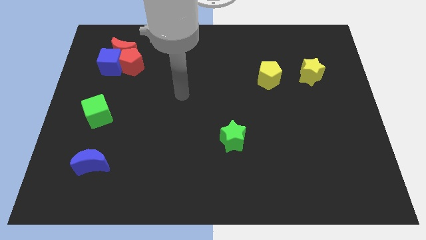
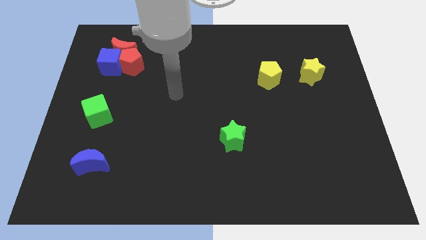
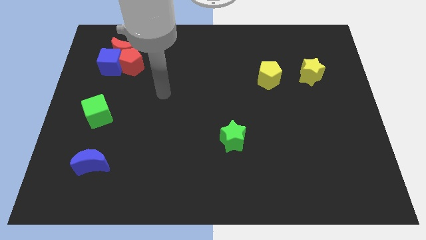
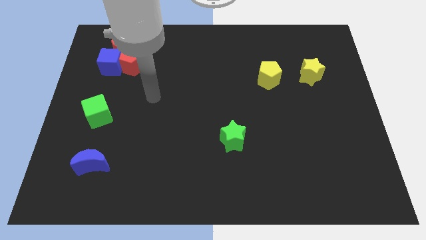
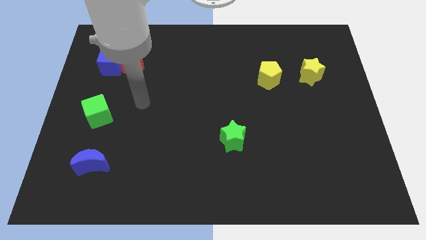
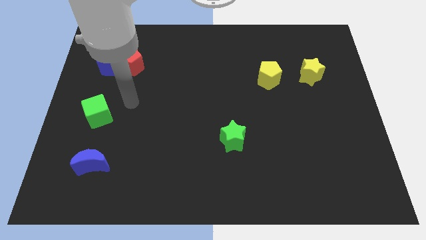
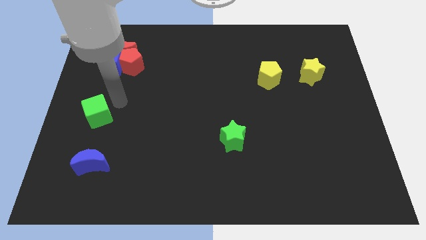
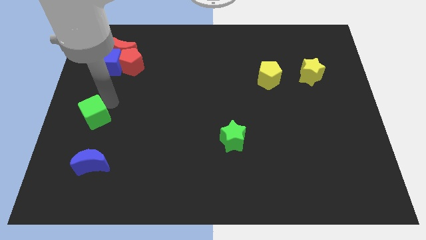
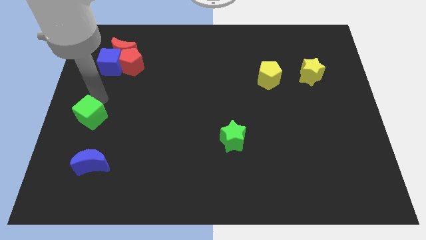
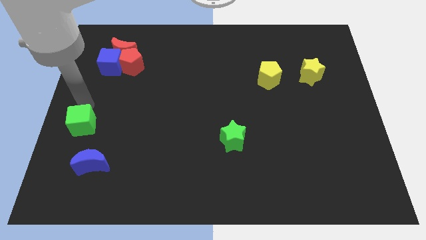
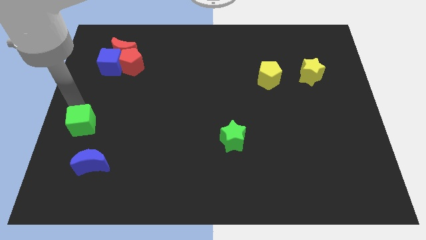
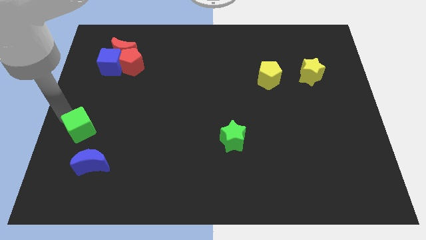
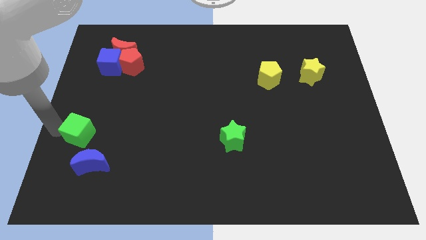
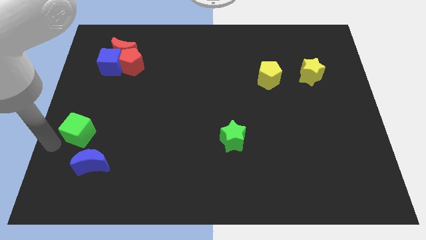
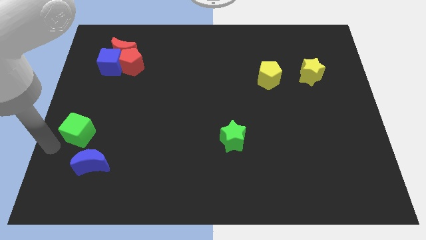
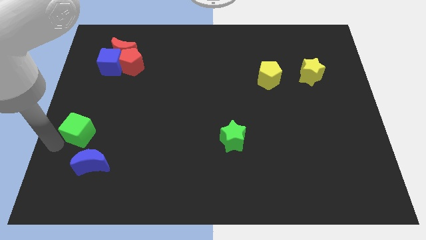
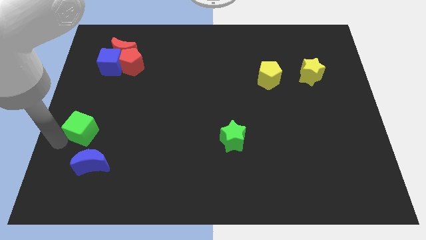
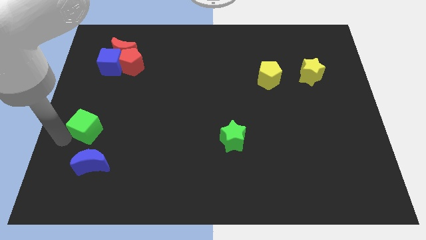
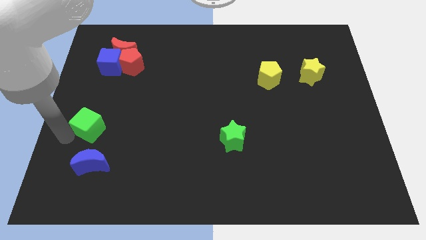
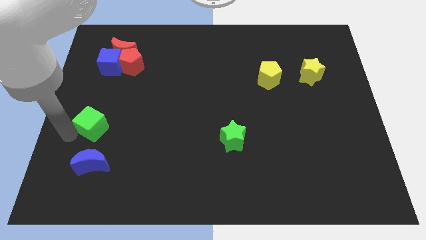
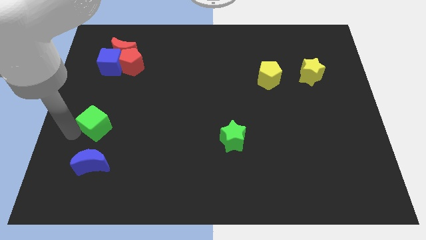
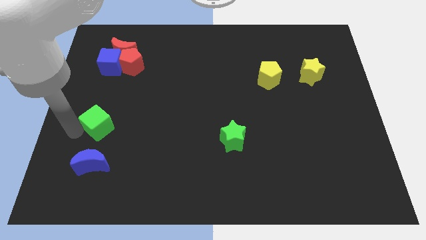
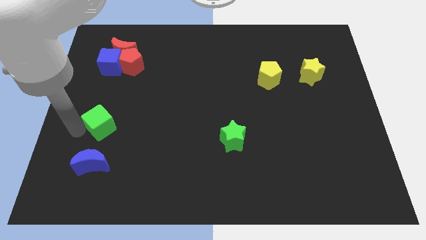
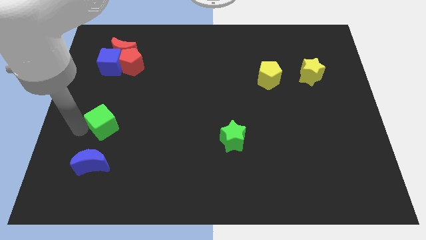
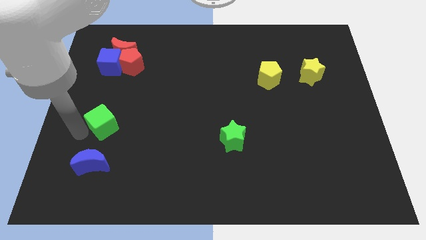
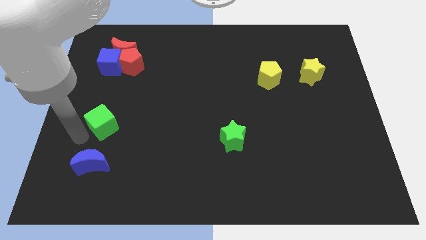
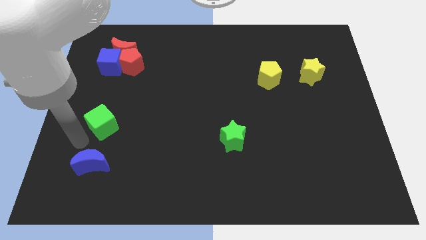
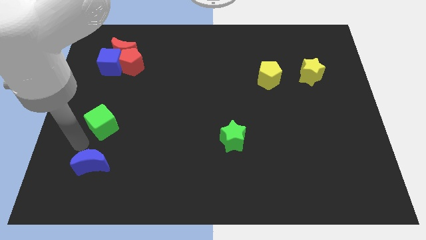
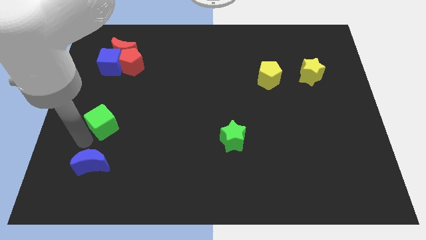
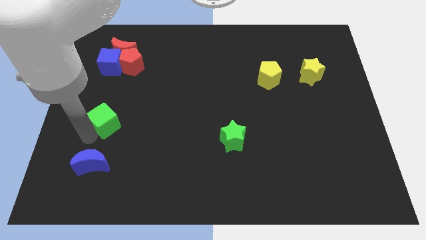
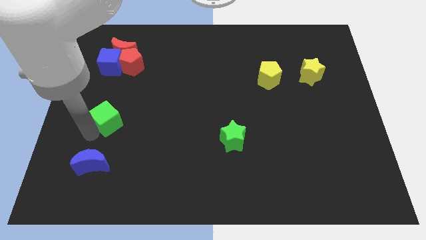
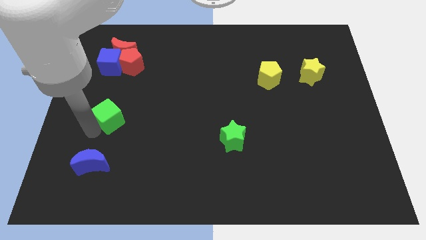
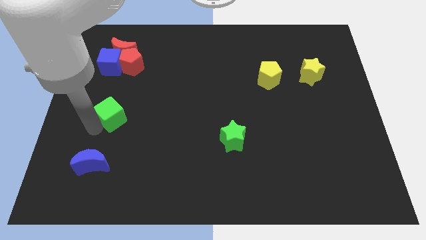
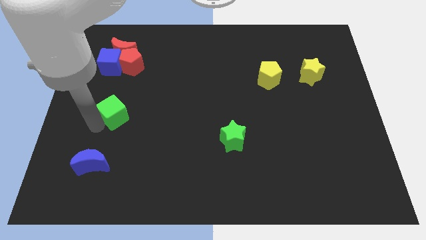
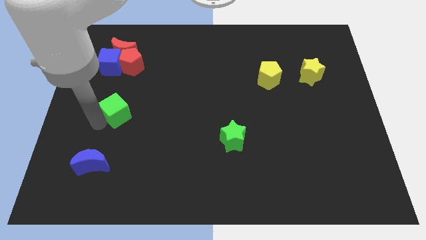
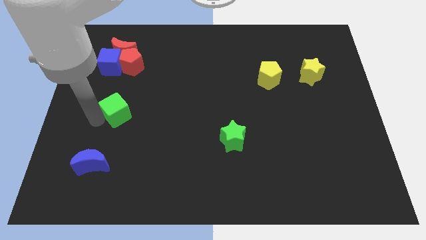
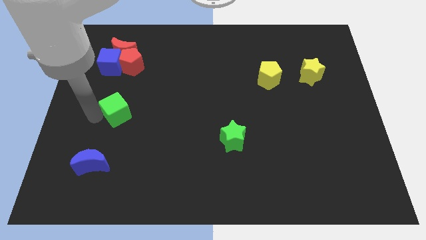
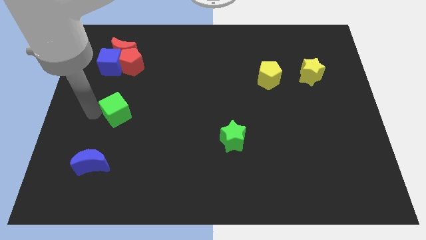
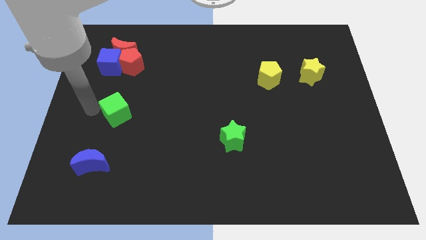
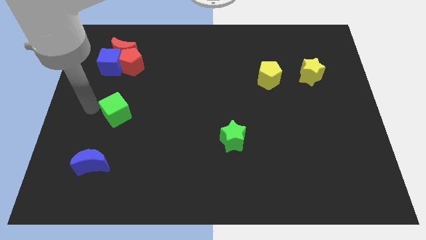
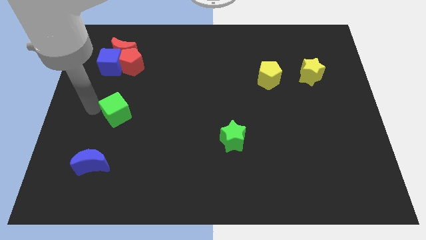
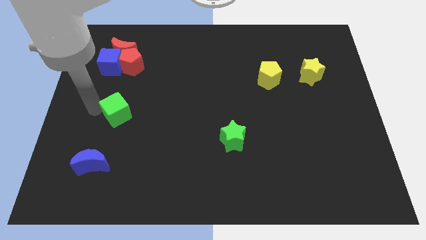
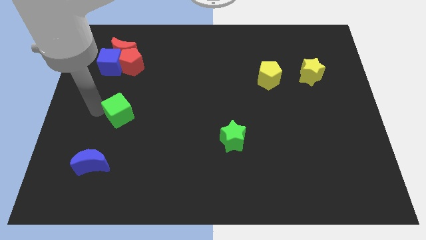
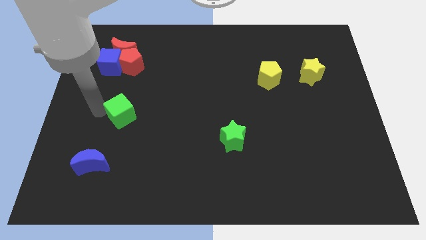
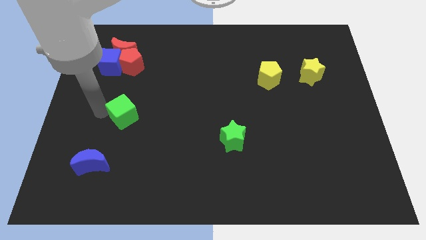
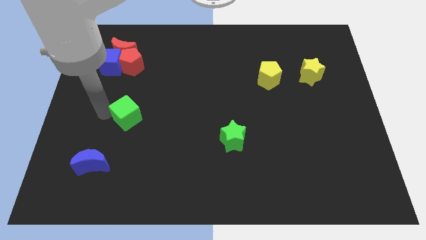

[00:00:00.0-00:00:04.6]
move the green cube slightly right

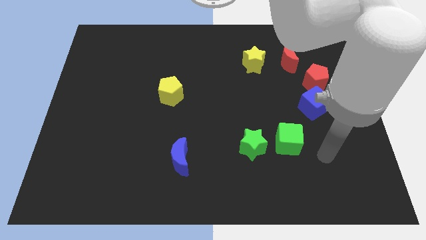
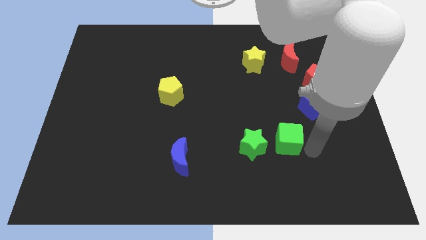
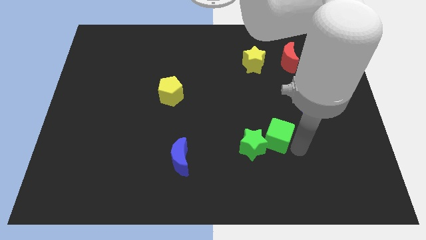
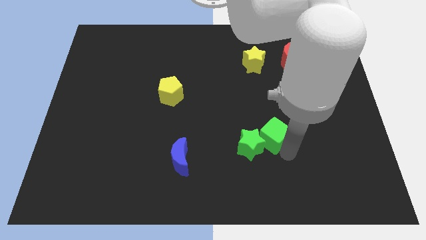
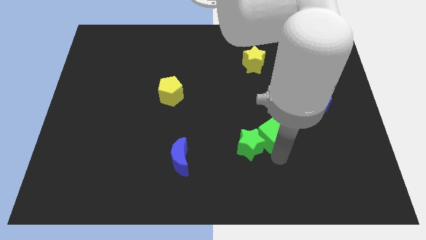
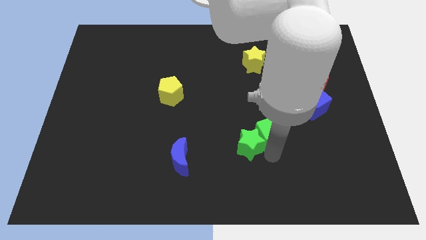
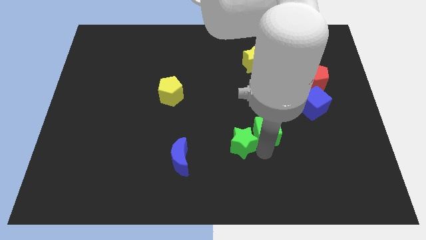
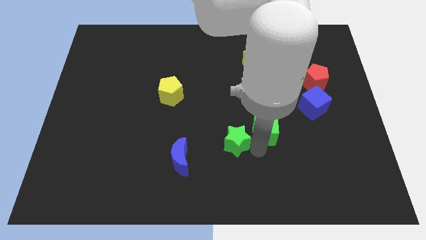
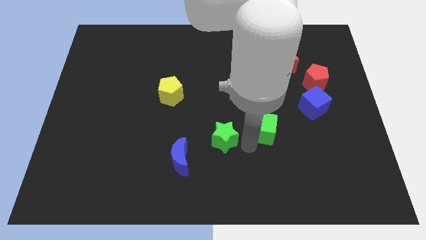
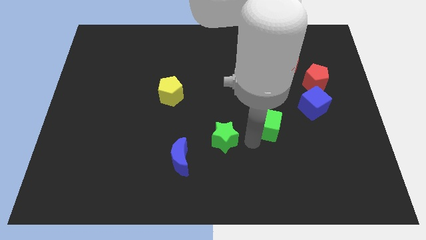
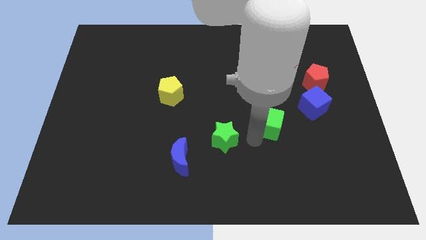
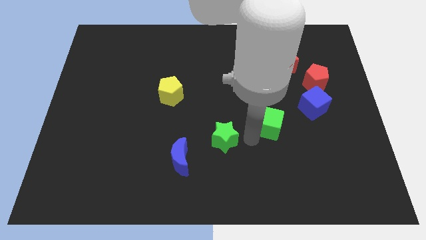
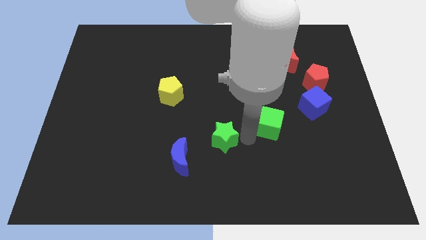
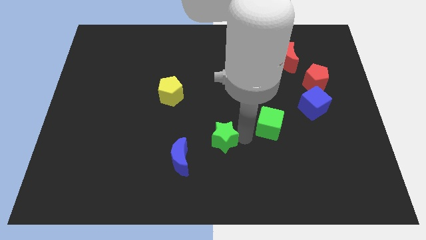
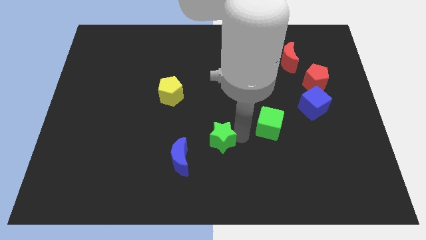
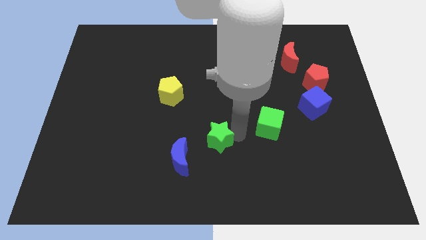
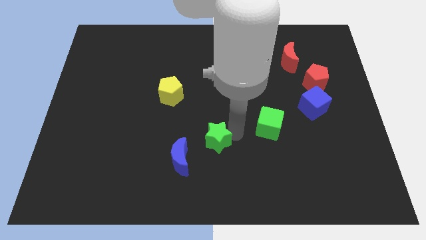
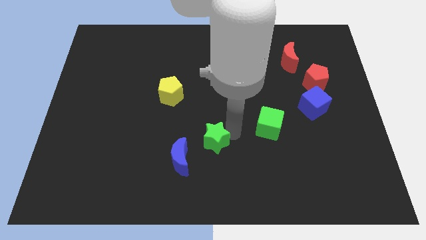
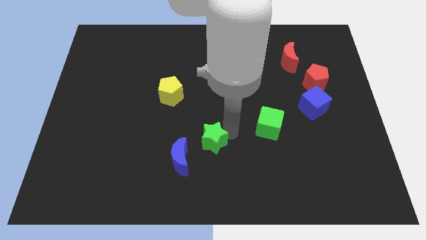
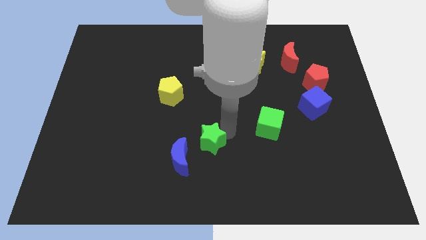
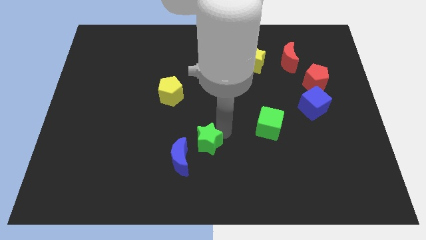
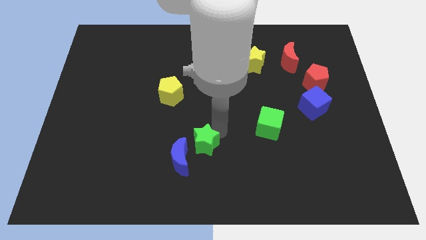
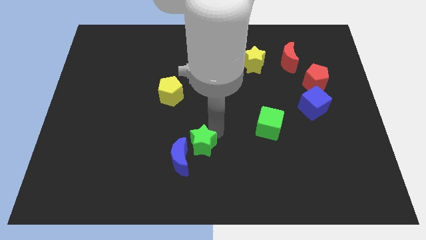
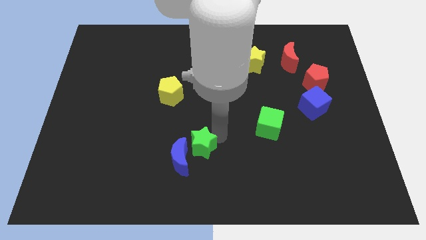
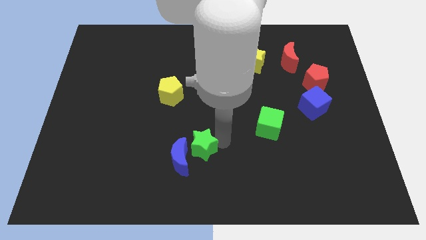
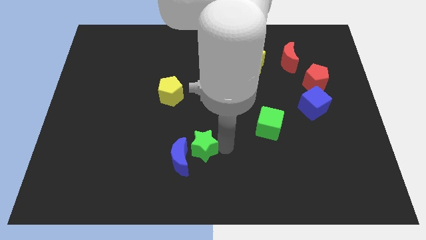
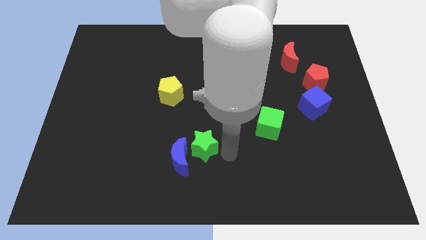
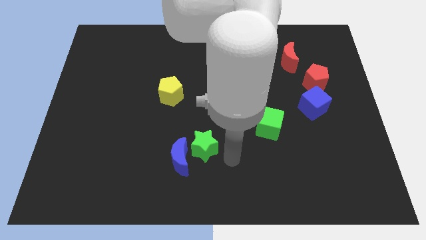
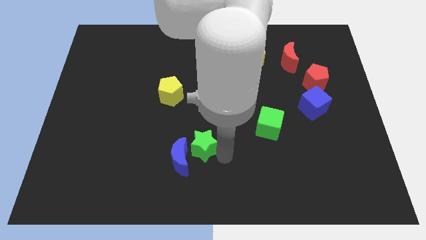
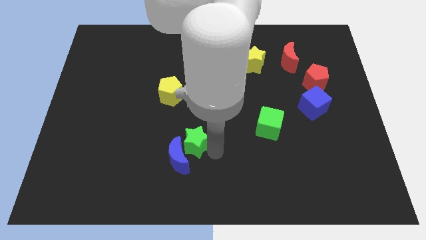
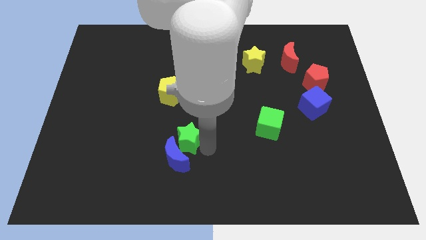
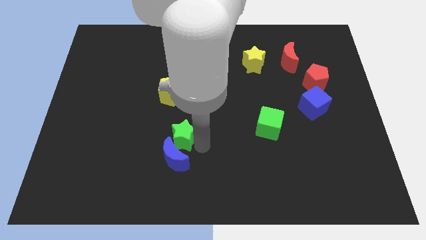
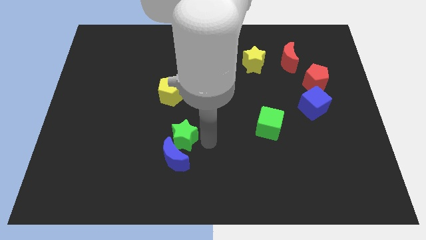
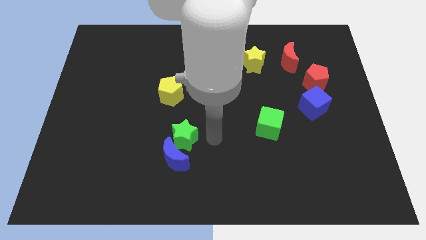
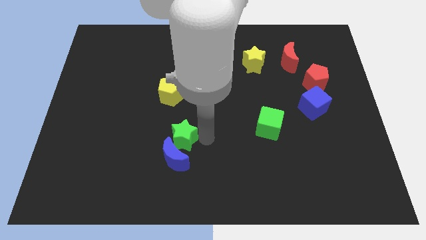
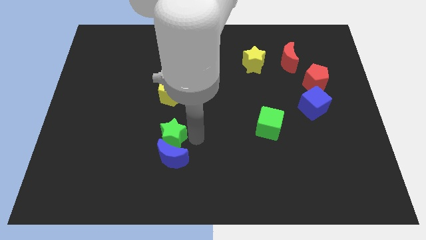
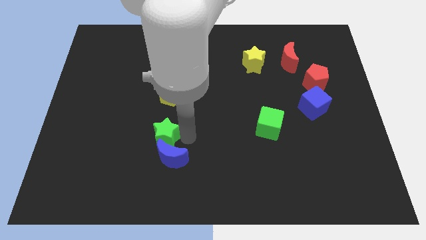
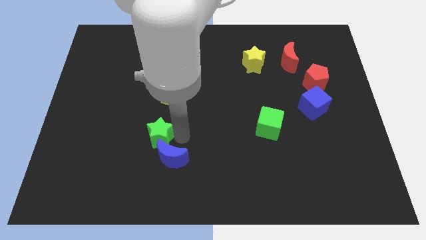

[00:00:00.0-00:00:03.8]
push the green star to the left
